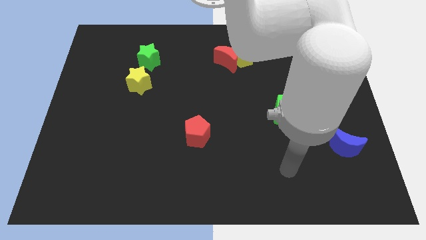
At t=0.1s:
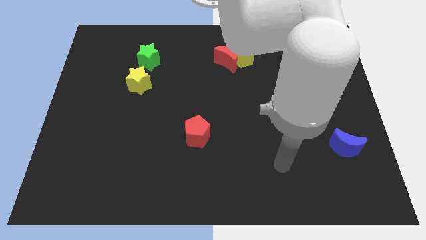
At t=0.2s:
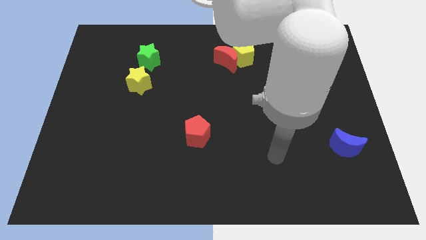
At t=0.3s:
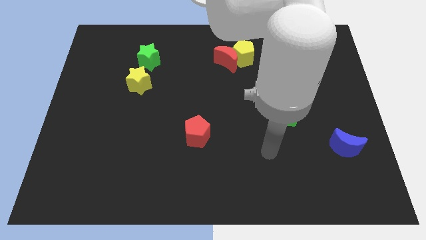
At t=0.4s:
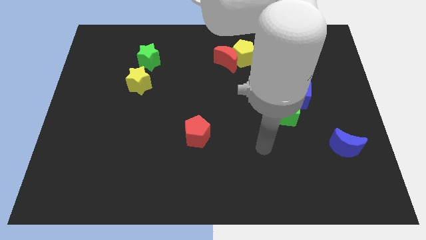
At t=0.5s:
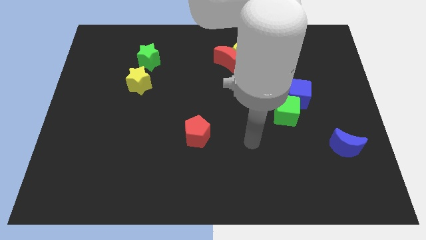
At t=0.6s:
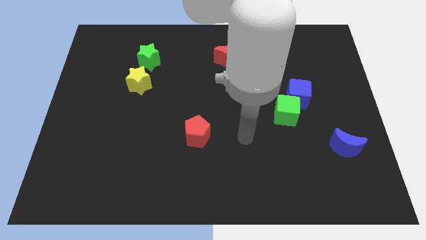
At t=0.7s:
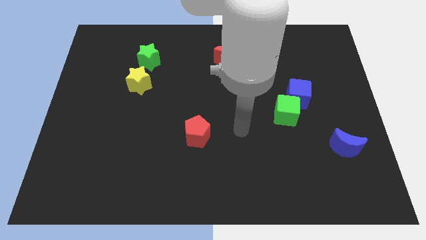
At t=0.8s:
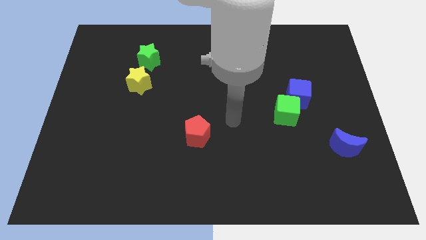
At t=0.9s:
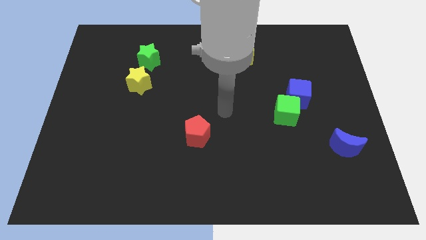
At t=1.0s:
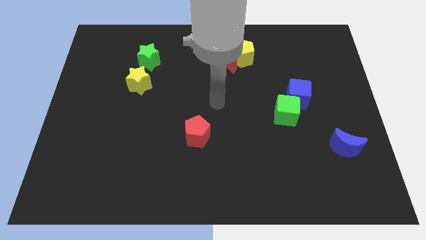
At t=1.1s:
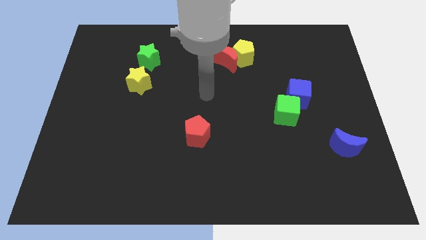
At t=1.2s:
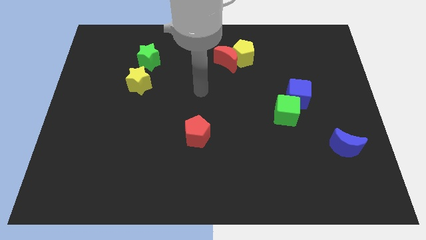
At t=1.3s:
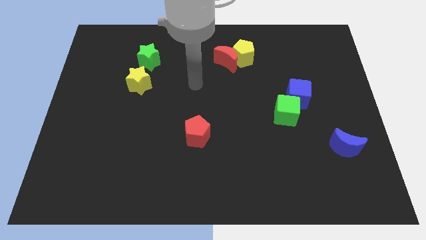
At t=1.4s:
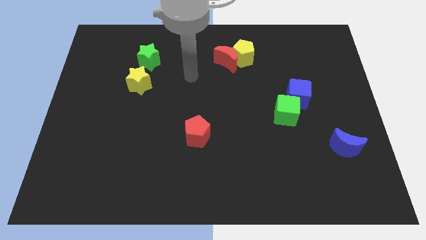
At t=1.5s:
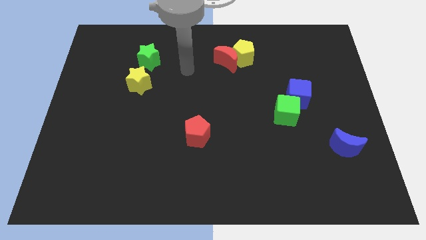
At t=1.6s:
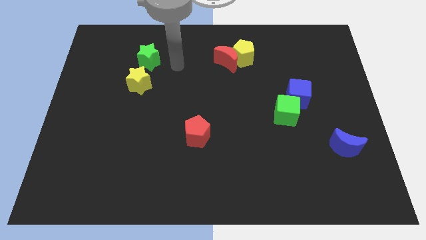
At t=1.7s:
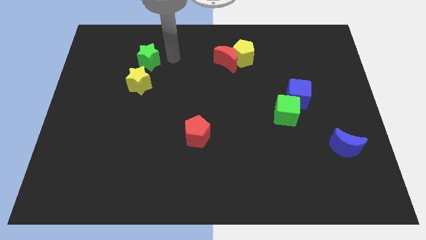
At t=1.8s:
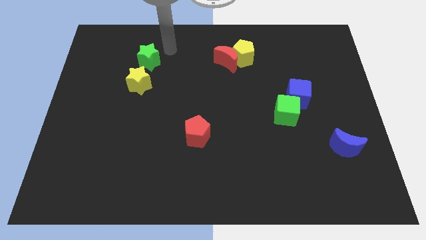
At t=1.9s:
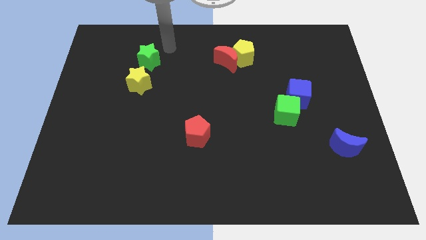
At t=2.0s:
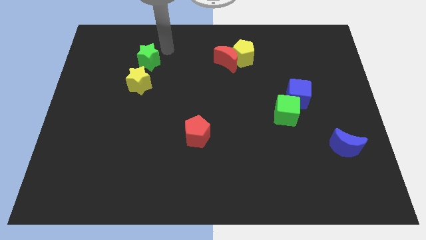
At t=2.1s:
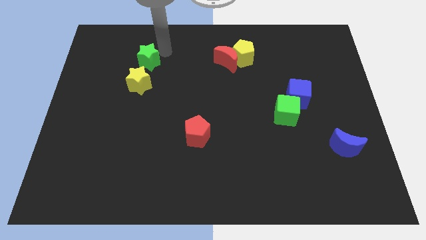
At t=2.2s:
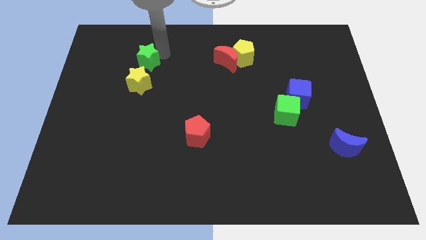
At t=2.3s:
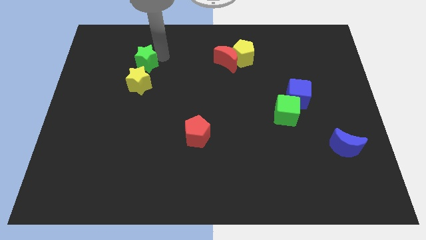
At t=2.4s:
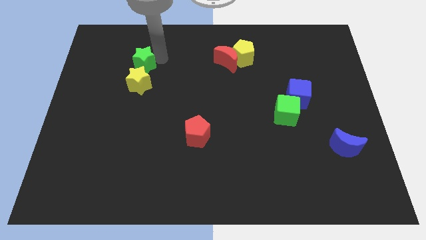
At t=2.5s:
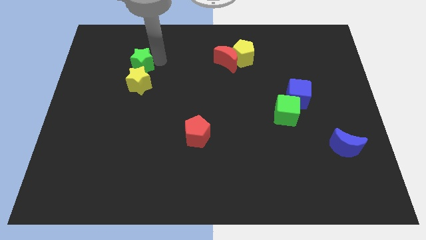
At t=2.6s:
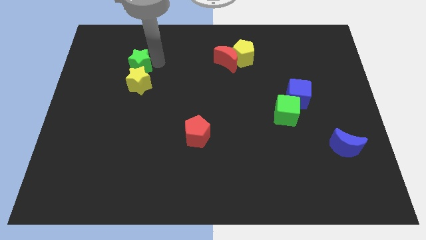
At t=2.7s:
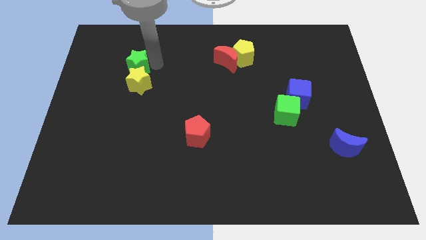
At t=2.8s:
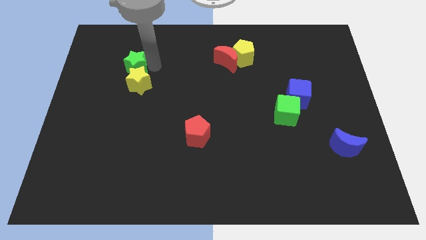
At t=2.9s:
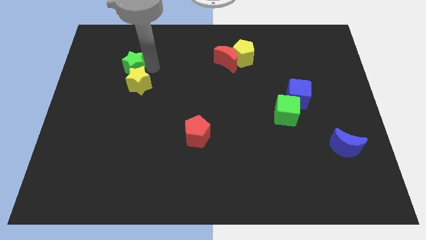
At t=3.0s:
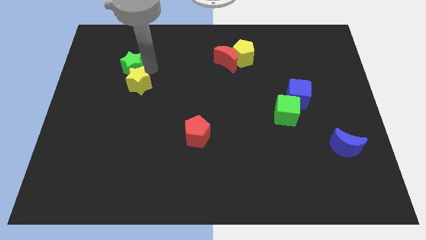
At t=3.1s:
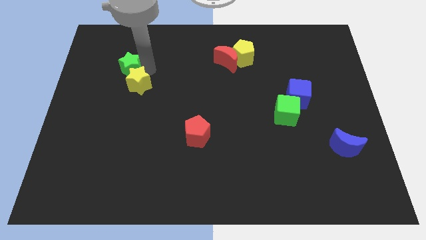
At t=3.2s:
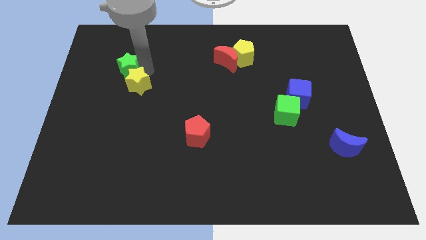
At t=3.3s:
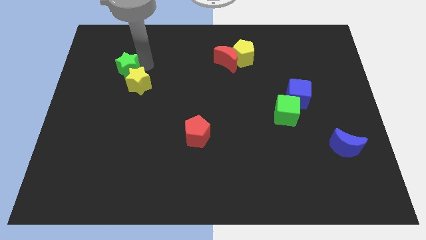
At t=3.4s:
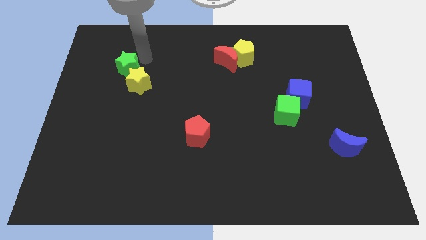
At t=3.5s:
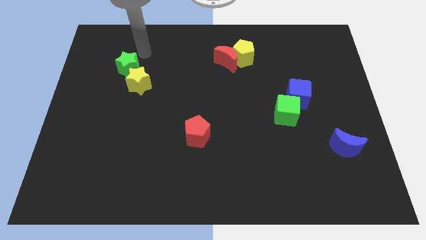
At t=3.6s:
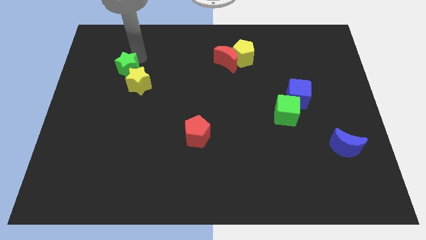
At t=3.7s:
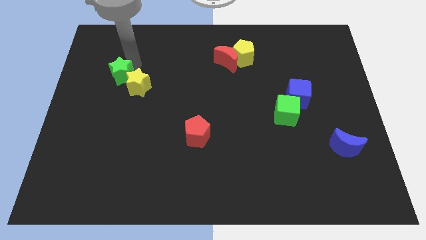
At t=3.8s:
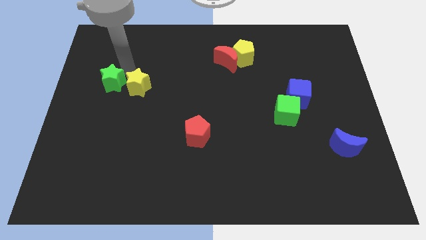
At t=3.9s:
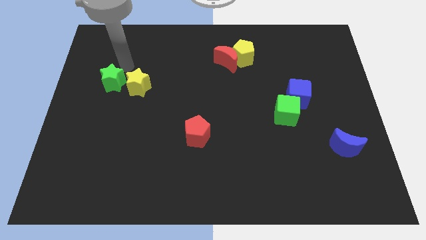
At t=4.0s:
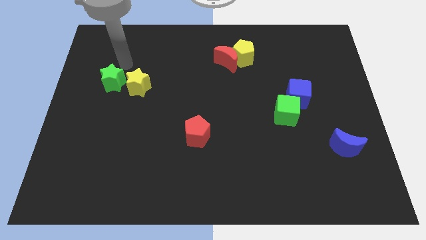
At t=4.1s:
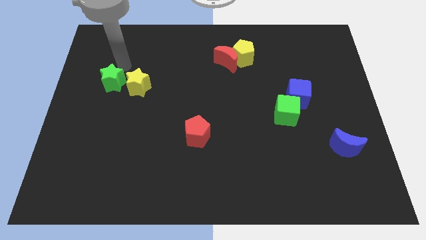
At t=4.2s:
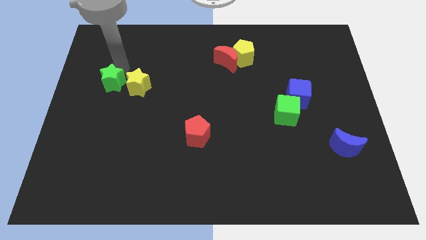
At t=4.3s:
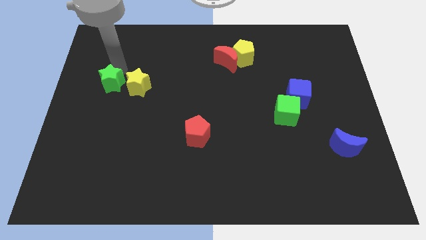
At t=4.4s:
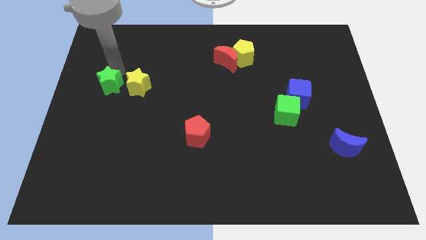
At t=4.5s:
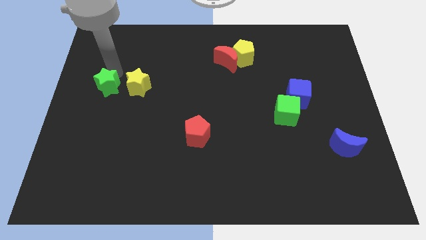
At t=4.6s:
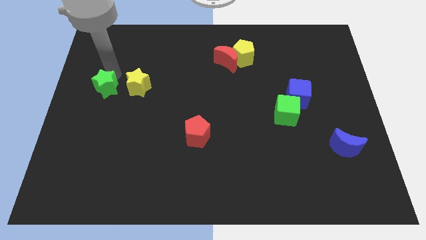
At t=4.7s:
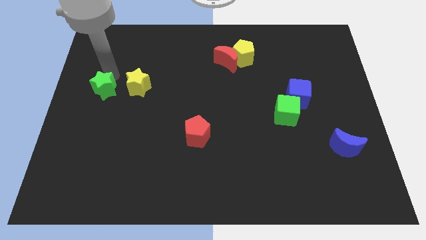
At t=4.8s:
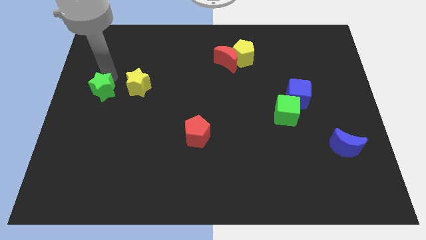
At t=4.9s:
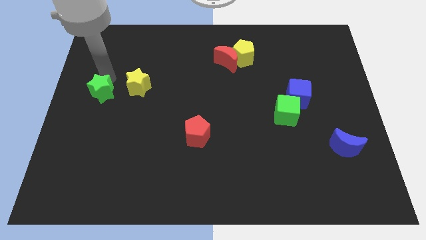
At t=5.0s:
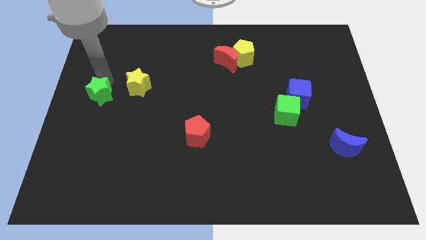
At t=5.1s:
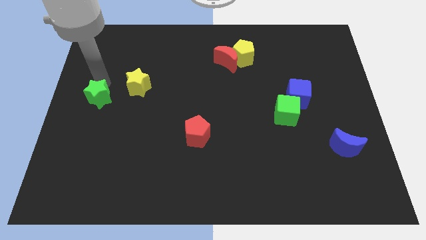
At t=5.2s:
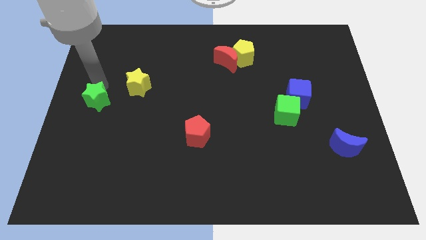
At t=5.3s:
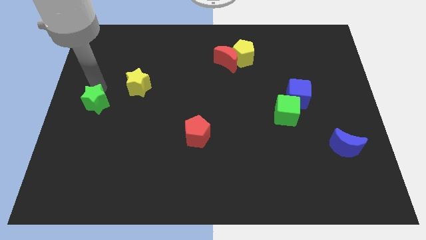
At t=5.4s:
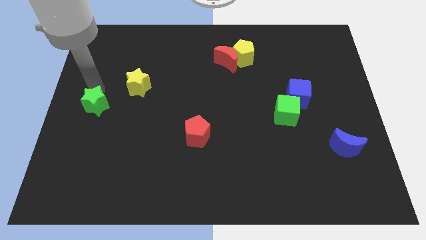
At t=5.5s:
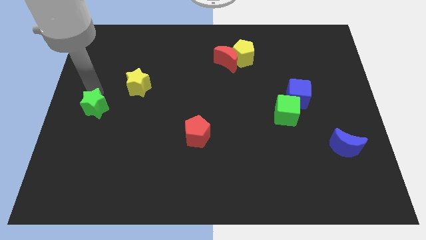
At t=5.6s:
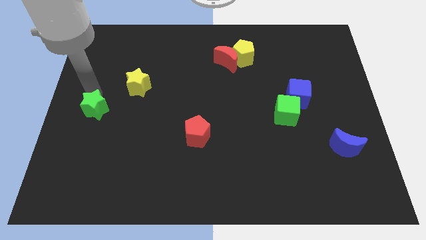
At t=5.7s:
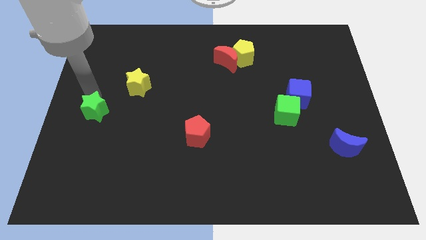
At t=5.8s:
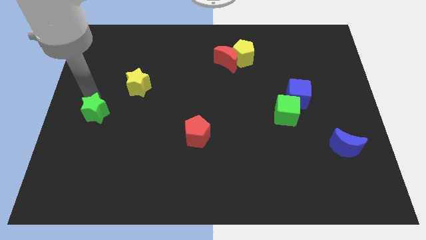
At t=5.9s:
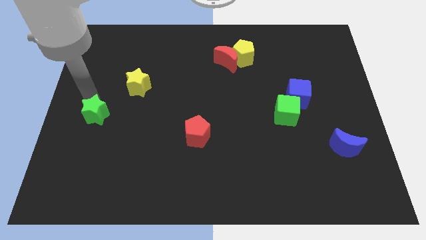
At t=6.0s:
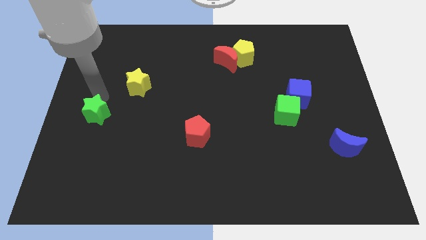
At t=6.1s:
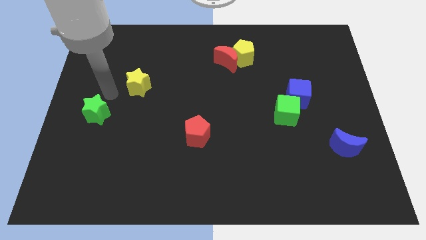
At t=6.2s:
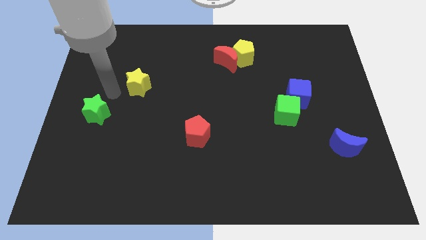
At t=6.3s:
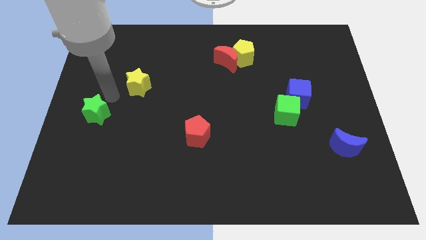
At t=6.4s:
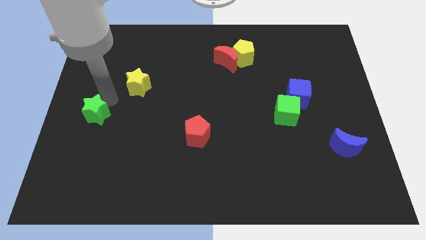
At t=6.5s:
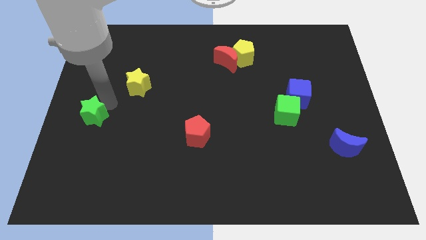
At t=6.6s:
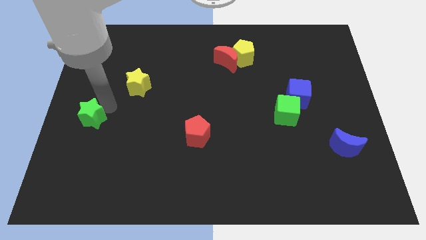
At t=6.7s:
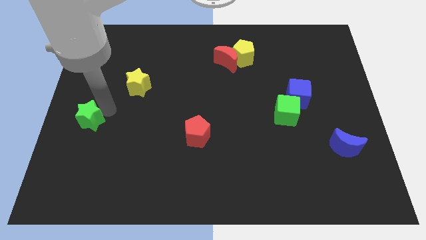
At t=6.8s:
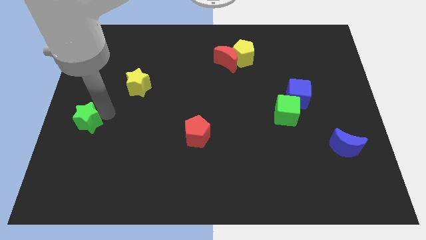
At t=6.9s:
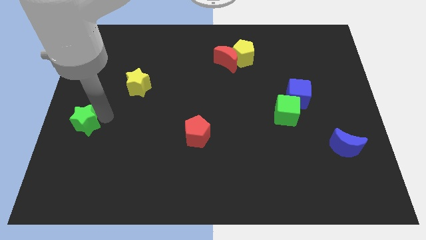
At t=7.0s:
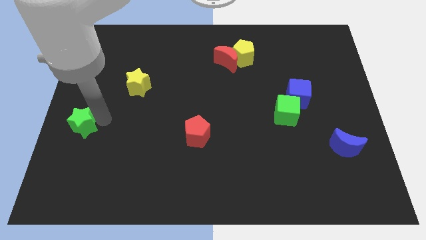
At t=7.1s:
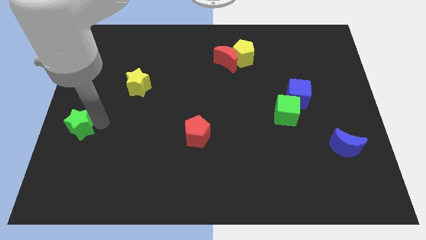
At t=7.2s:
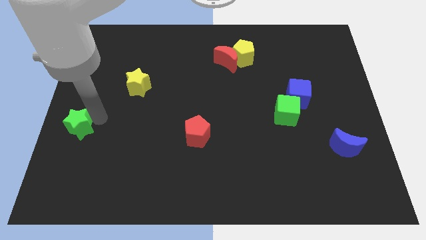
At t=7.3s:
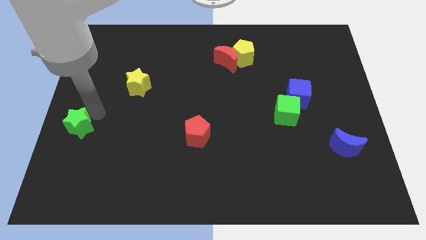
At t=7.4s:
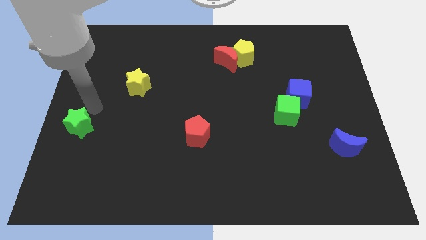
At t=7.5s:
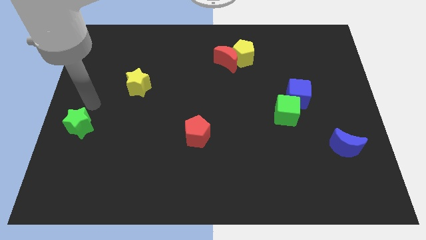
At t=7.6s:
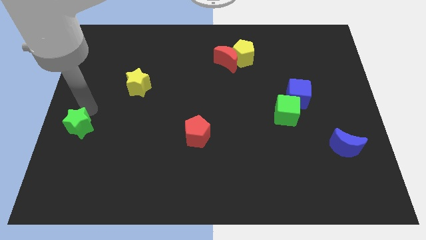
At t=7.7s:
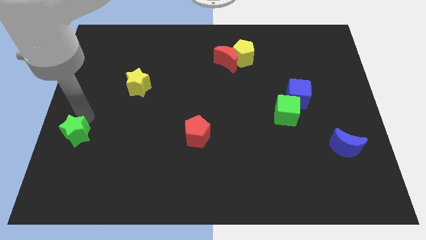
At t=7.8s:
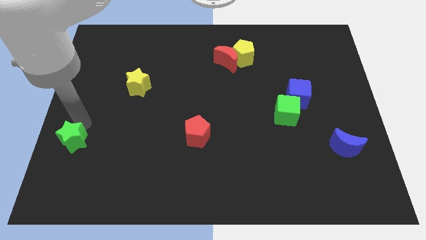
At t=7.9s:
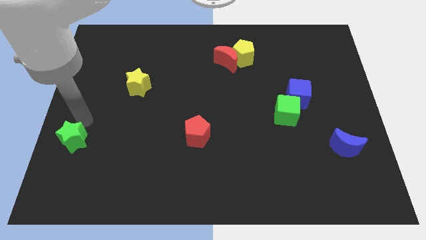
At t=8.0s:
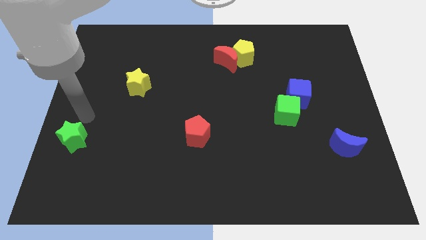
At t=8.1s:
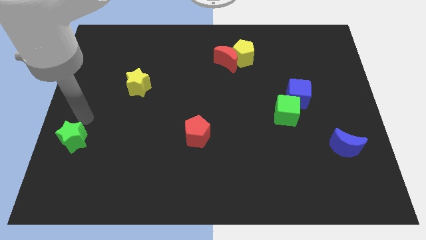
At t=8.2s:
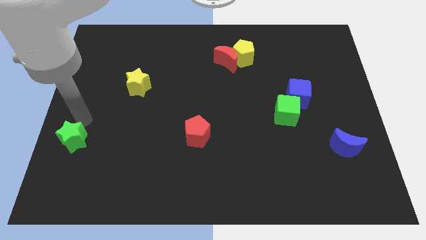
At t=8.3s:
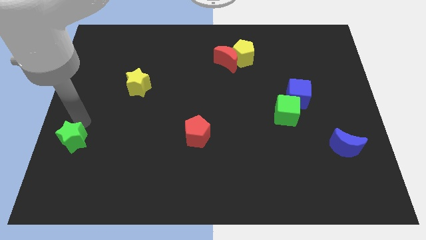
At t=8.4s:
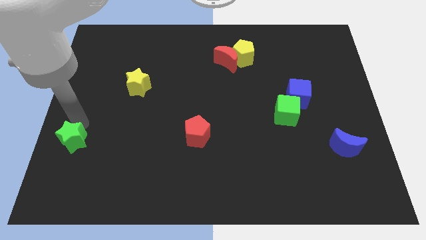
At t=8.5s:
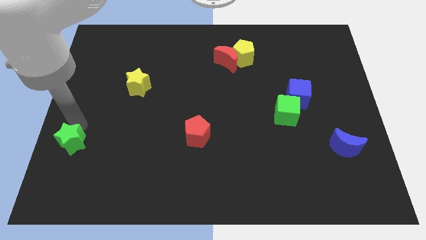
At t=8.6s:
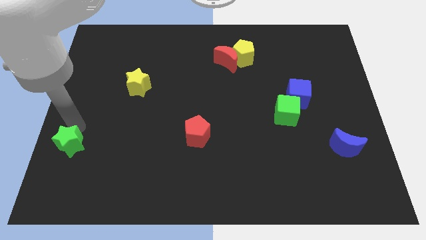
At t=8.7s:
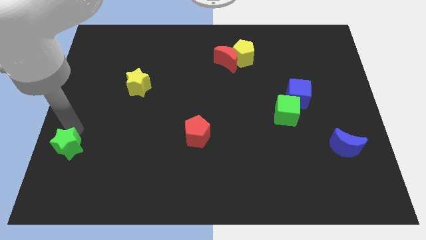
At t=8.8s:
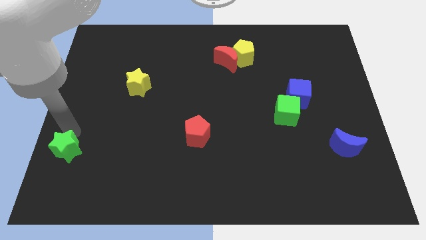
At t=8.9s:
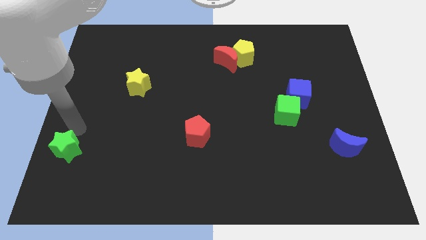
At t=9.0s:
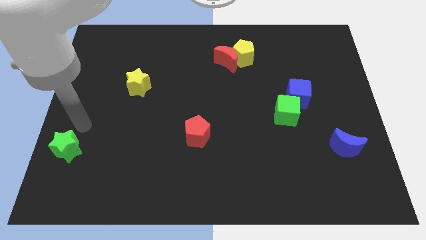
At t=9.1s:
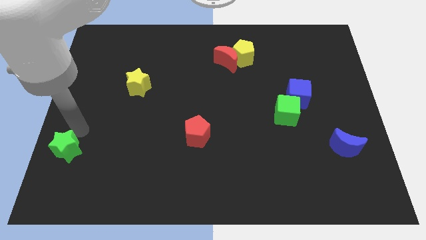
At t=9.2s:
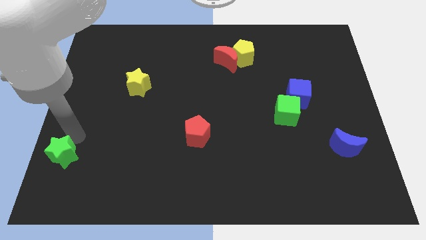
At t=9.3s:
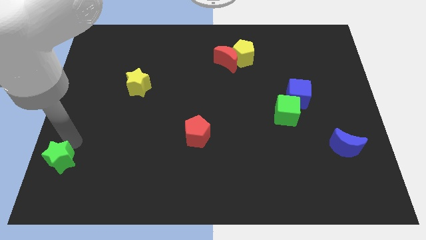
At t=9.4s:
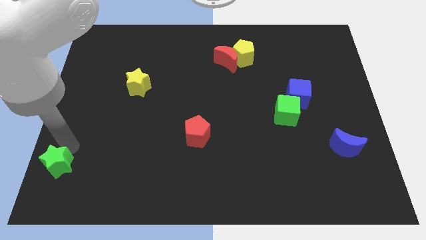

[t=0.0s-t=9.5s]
slide the green star to the bottom left of the board
